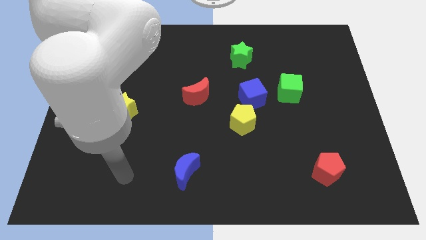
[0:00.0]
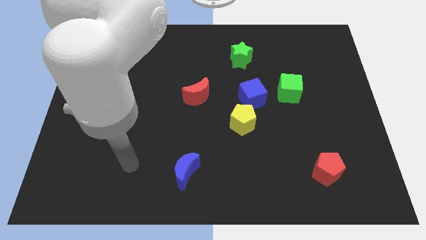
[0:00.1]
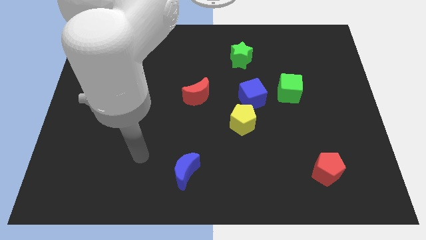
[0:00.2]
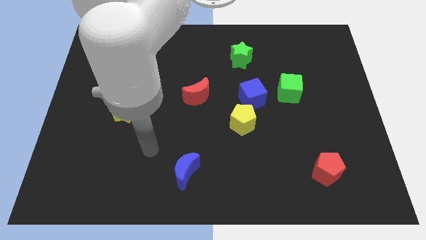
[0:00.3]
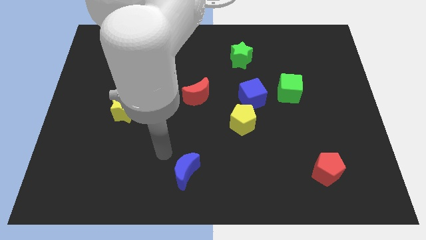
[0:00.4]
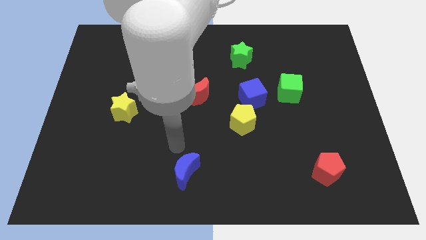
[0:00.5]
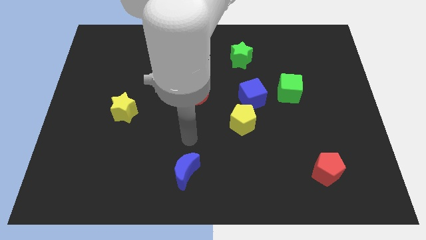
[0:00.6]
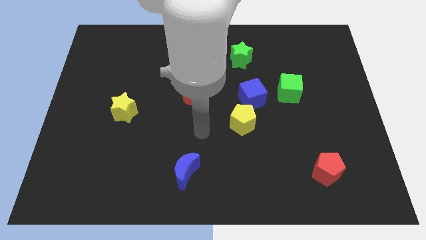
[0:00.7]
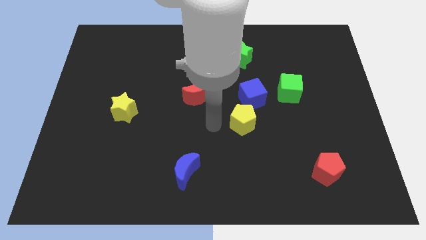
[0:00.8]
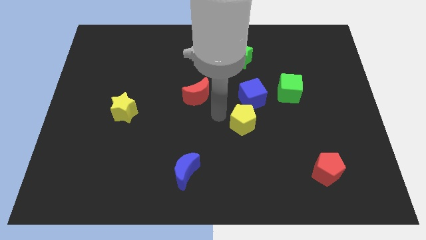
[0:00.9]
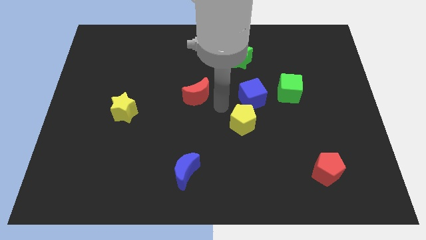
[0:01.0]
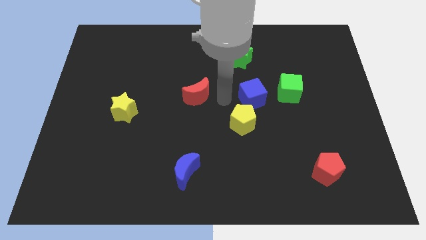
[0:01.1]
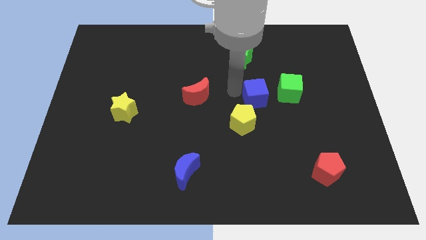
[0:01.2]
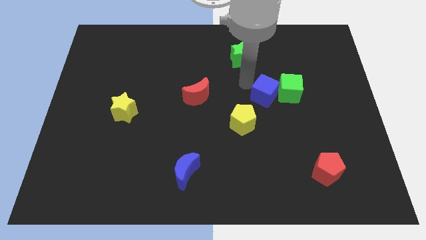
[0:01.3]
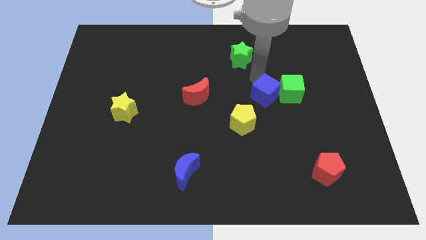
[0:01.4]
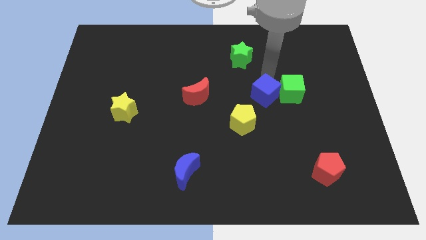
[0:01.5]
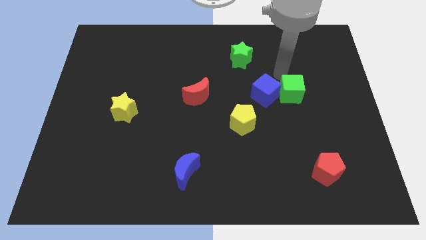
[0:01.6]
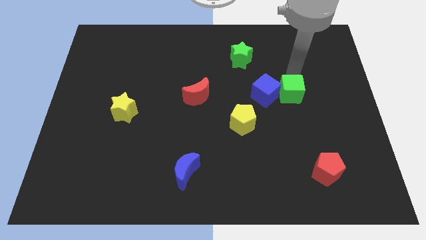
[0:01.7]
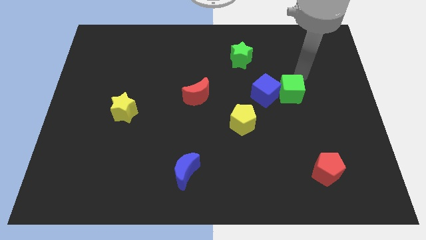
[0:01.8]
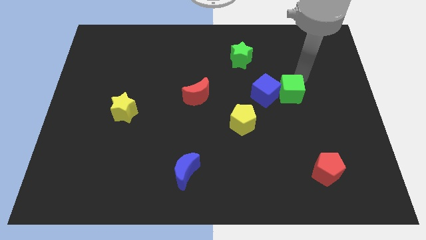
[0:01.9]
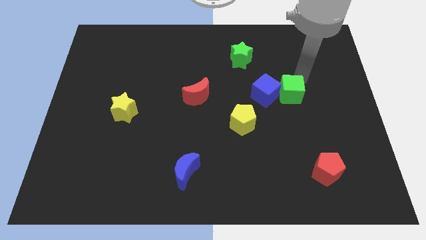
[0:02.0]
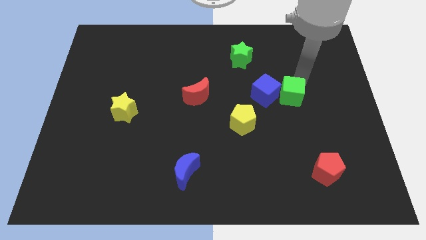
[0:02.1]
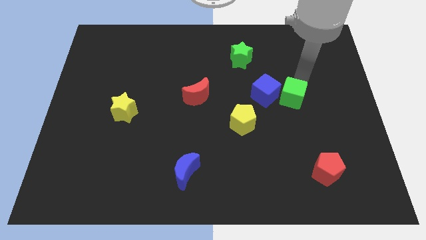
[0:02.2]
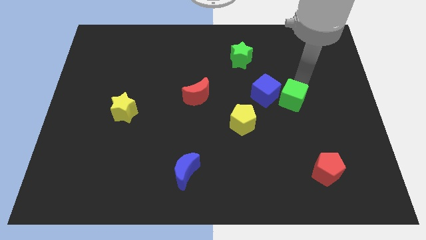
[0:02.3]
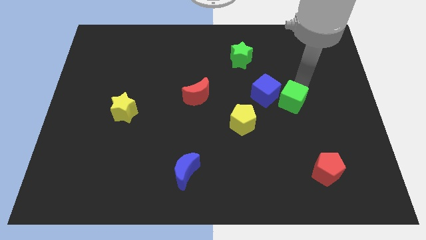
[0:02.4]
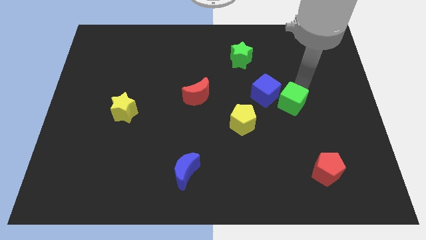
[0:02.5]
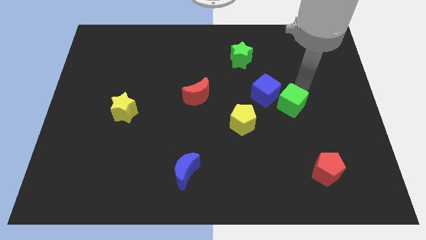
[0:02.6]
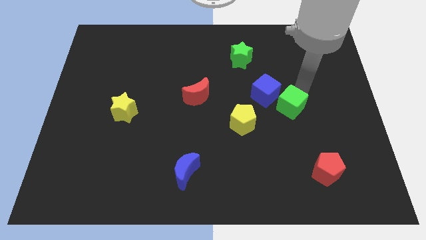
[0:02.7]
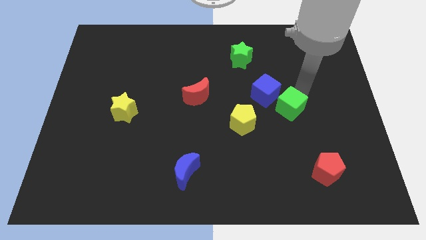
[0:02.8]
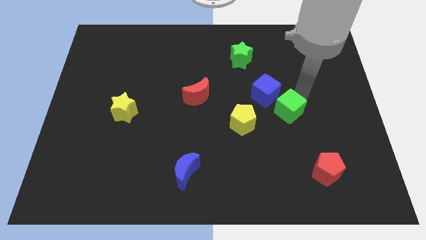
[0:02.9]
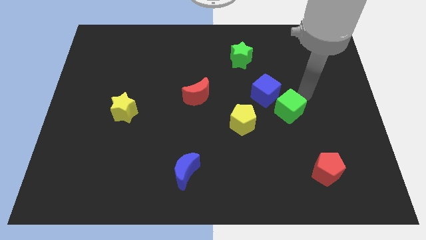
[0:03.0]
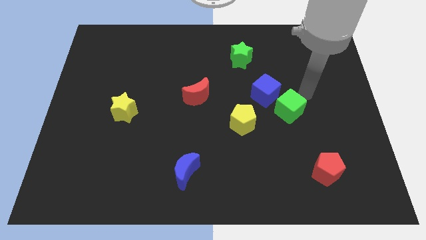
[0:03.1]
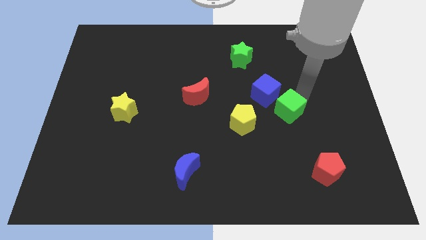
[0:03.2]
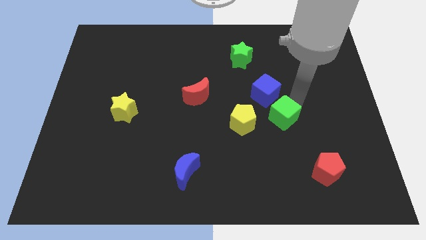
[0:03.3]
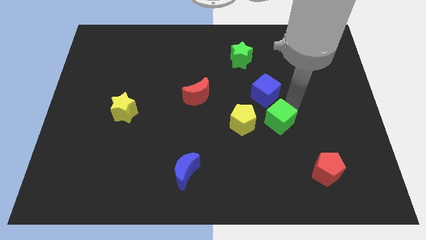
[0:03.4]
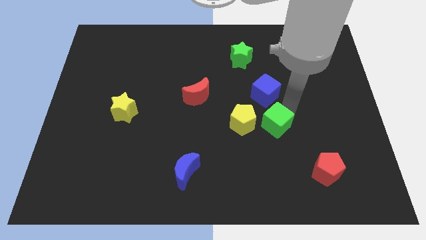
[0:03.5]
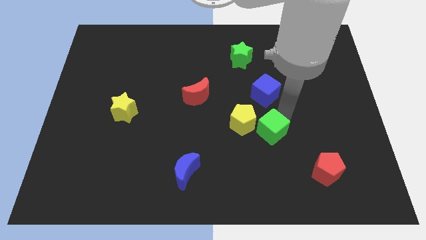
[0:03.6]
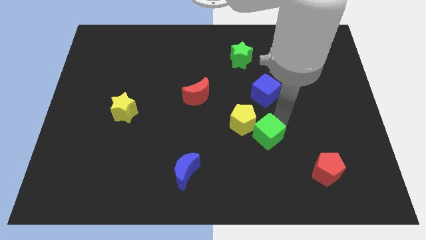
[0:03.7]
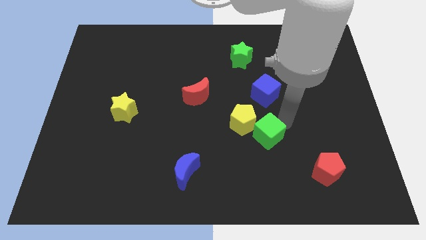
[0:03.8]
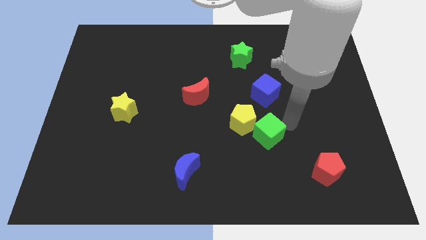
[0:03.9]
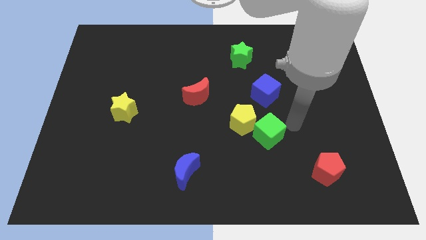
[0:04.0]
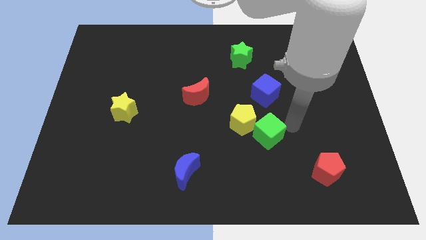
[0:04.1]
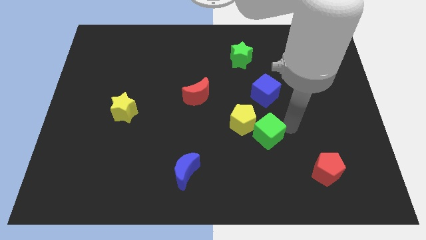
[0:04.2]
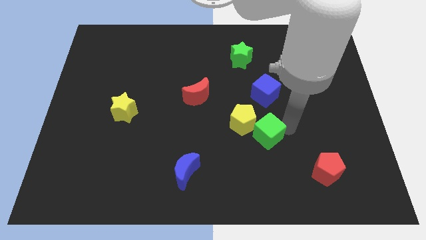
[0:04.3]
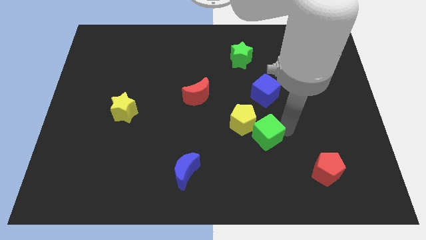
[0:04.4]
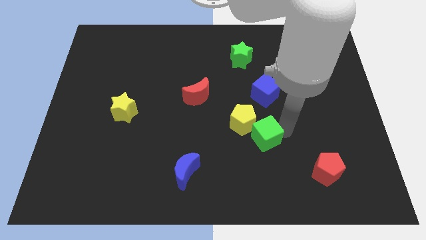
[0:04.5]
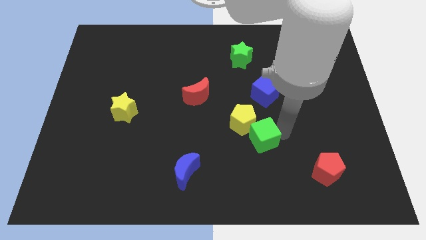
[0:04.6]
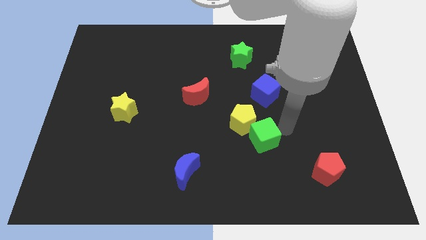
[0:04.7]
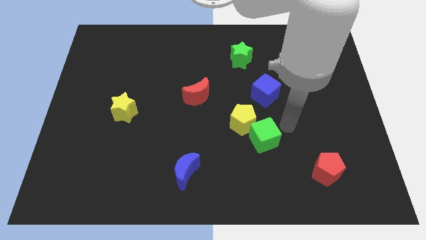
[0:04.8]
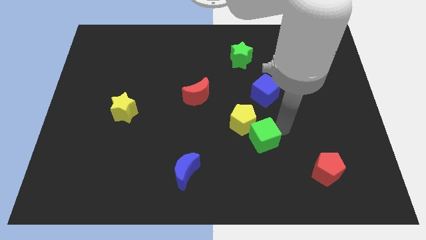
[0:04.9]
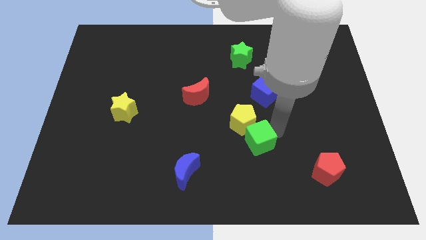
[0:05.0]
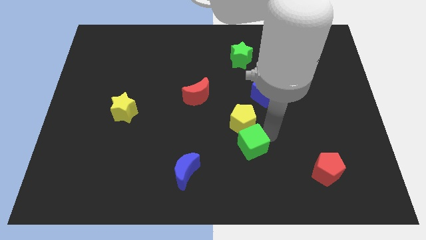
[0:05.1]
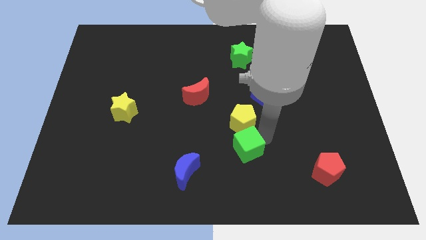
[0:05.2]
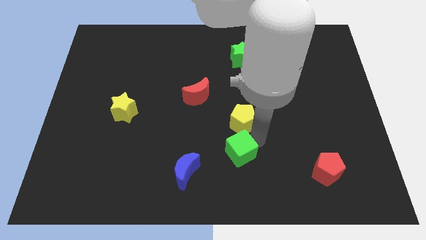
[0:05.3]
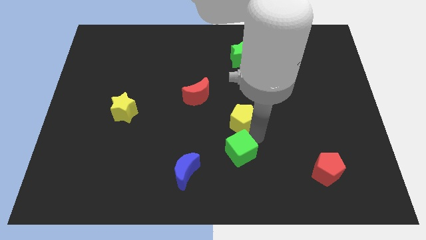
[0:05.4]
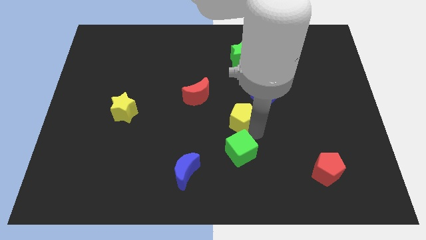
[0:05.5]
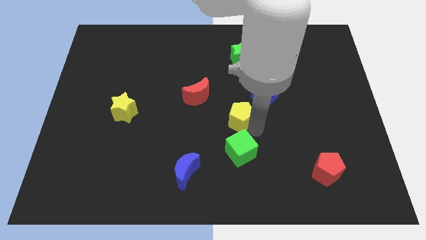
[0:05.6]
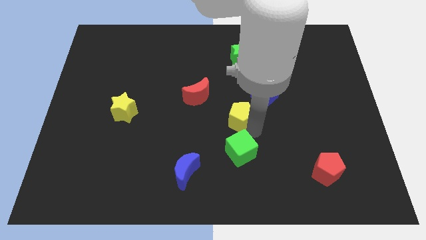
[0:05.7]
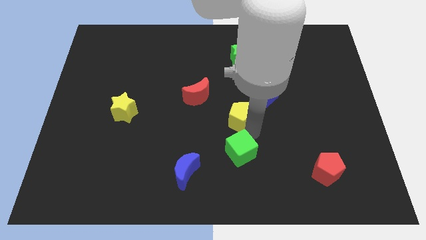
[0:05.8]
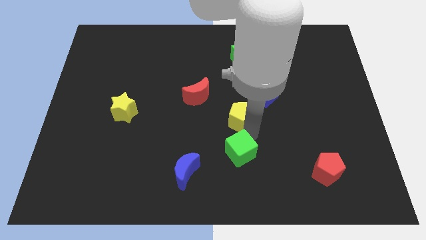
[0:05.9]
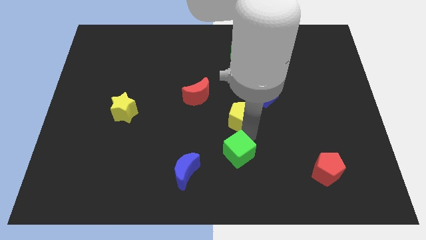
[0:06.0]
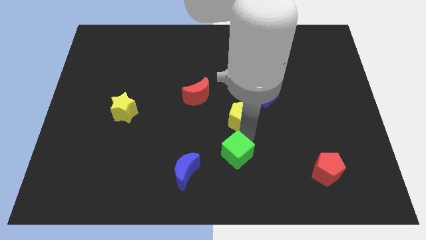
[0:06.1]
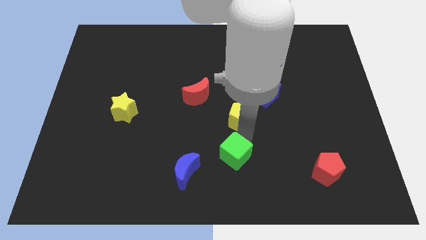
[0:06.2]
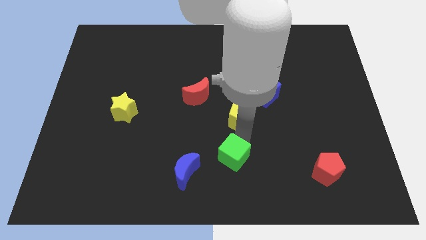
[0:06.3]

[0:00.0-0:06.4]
push the green cube to the bottom

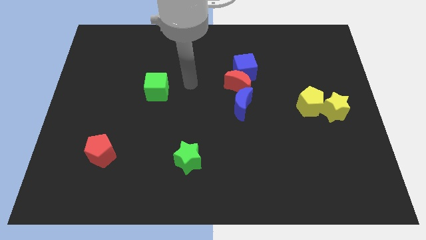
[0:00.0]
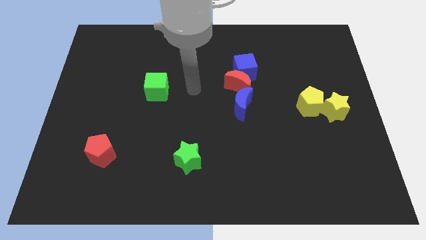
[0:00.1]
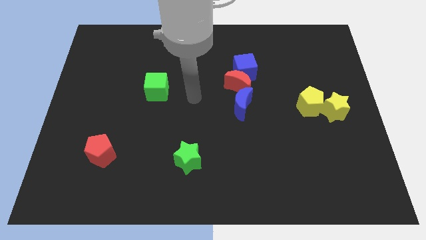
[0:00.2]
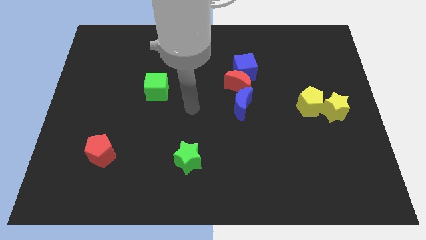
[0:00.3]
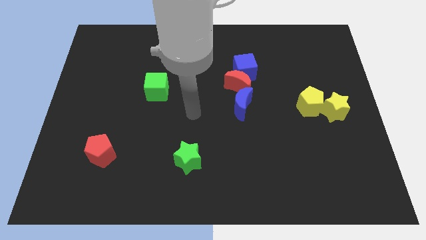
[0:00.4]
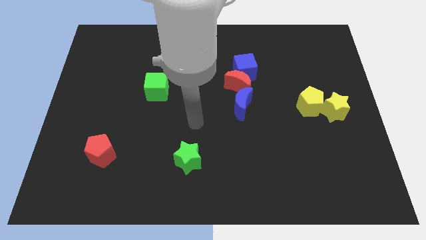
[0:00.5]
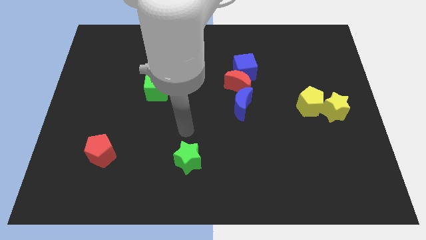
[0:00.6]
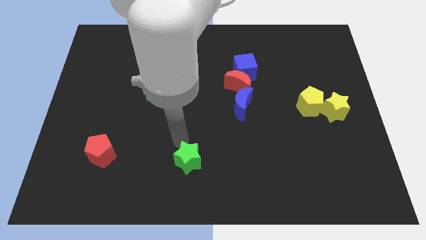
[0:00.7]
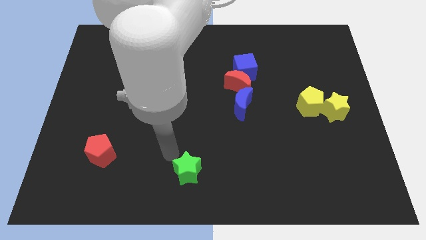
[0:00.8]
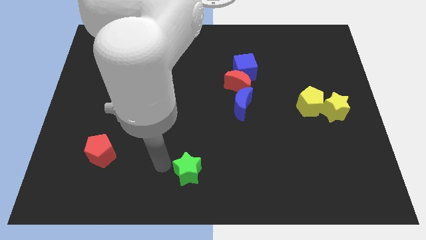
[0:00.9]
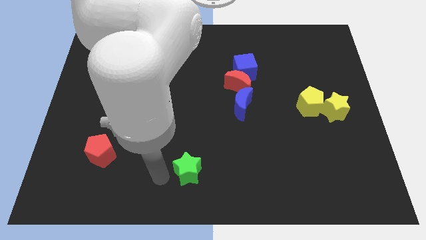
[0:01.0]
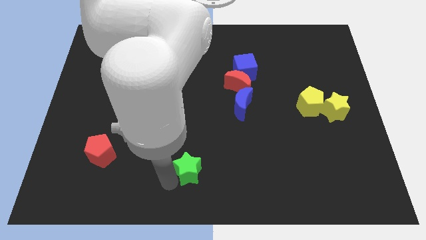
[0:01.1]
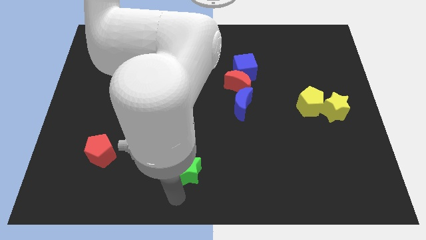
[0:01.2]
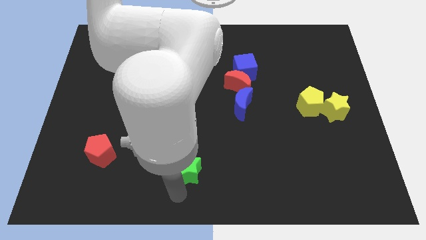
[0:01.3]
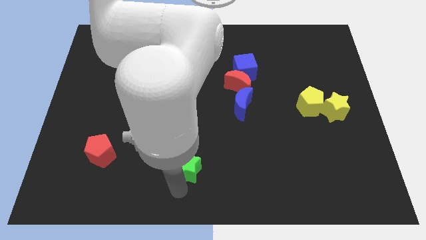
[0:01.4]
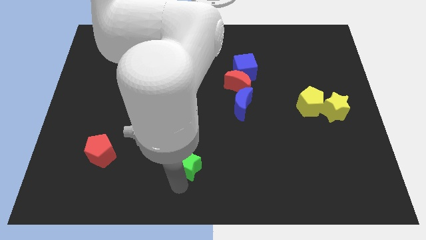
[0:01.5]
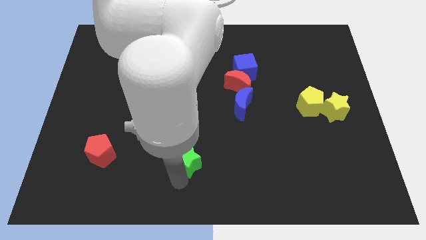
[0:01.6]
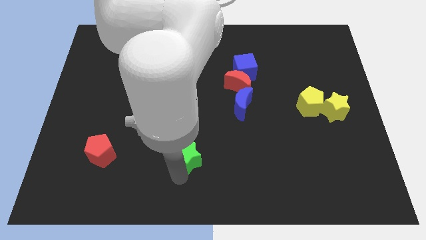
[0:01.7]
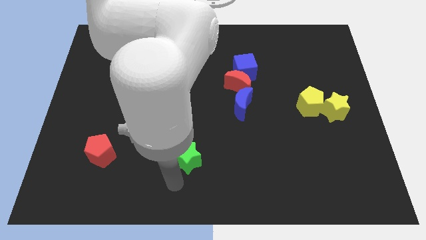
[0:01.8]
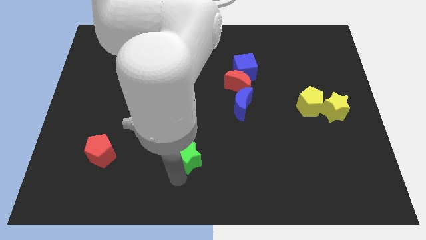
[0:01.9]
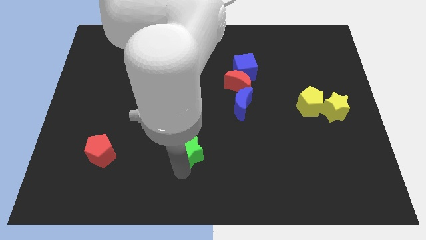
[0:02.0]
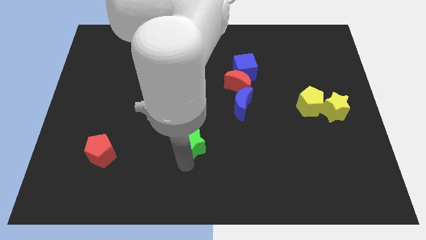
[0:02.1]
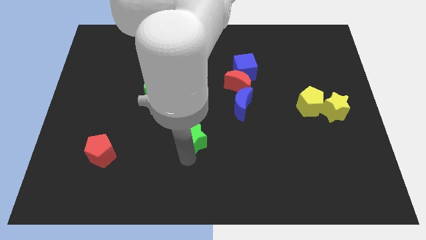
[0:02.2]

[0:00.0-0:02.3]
push the green star to the middle of the board
